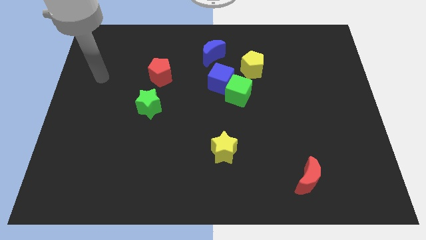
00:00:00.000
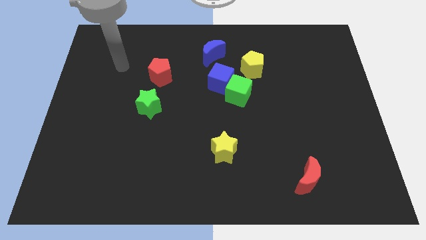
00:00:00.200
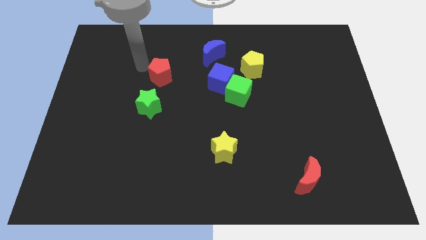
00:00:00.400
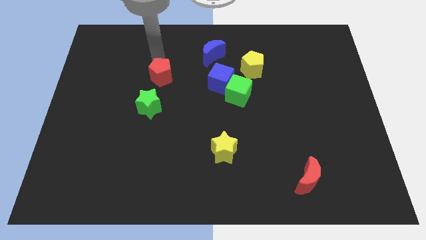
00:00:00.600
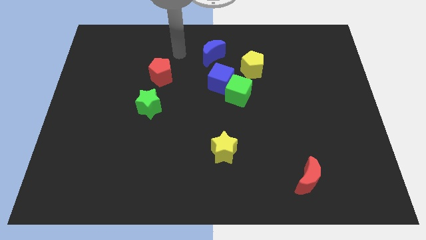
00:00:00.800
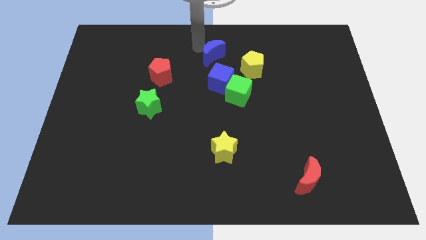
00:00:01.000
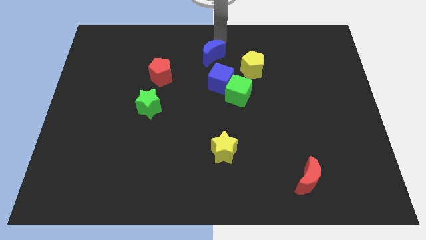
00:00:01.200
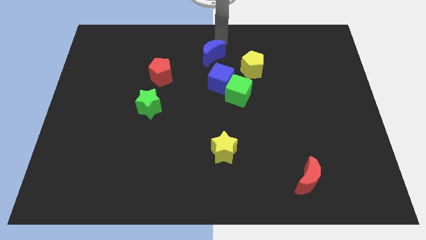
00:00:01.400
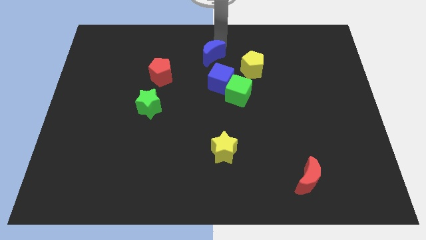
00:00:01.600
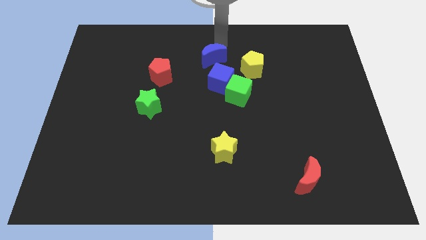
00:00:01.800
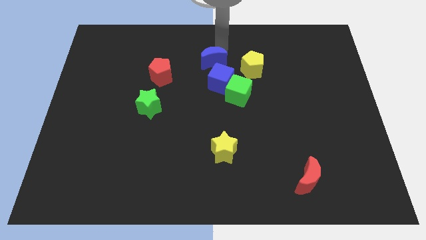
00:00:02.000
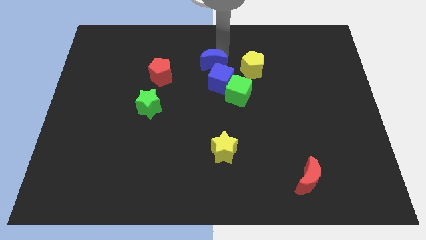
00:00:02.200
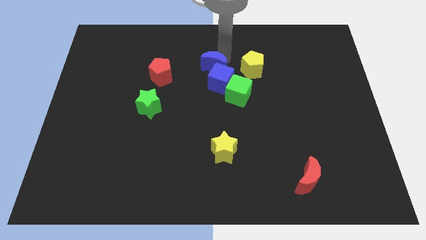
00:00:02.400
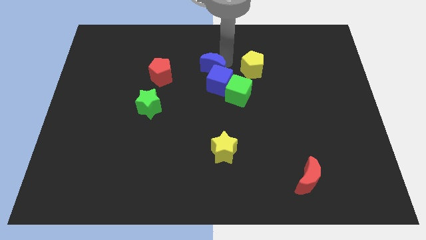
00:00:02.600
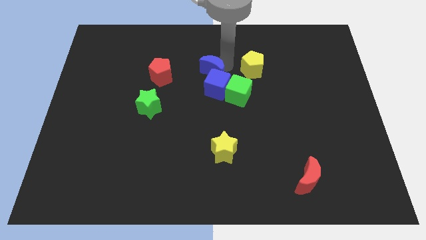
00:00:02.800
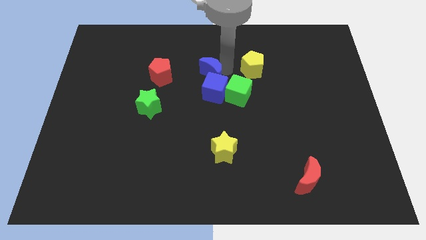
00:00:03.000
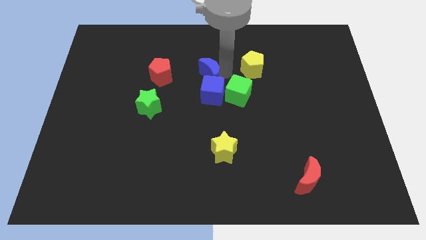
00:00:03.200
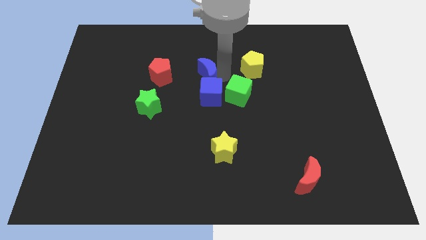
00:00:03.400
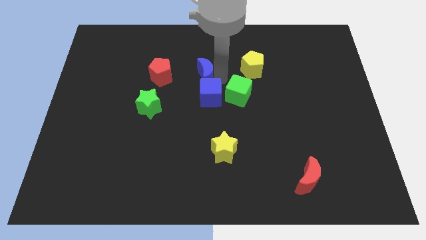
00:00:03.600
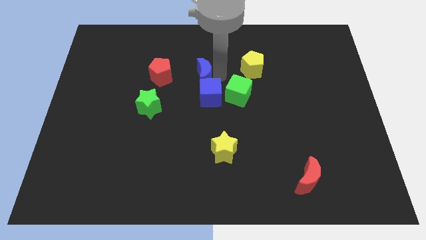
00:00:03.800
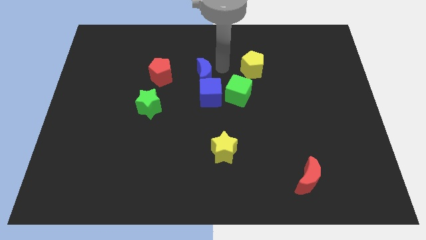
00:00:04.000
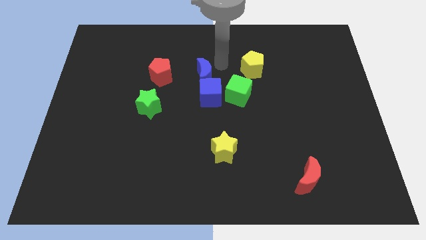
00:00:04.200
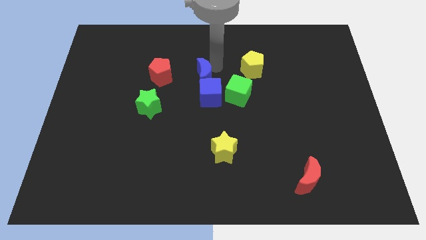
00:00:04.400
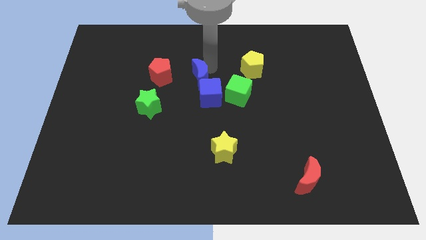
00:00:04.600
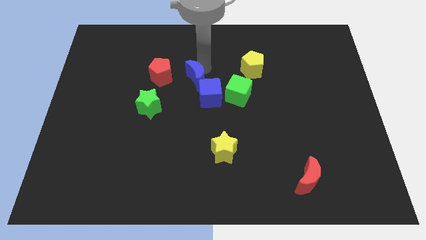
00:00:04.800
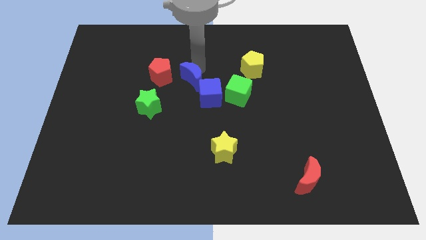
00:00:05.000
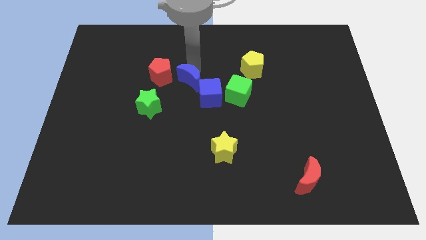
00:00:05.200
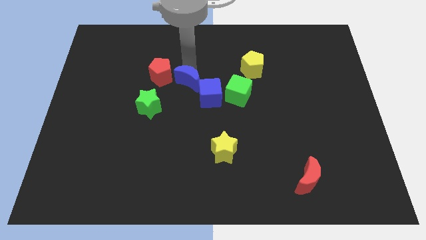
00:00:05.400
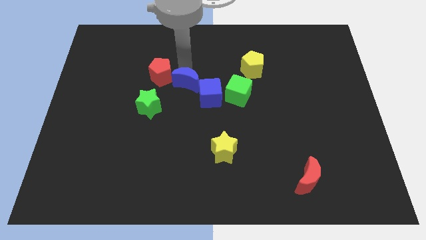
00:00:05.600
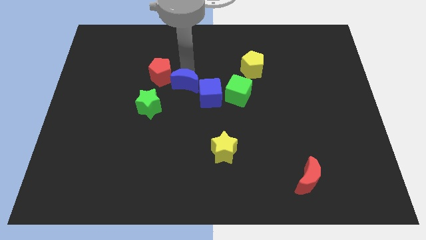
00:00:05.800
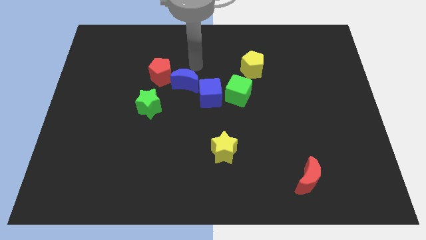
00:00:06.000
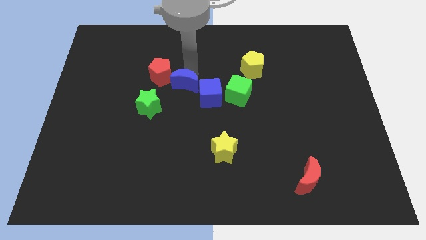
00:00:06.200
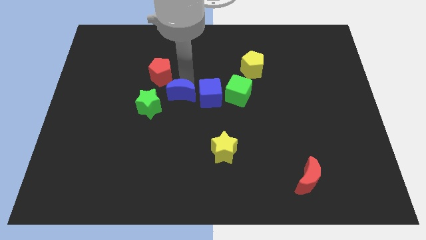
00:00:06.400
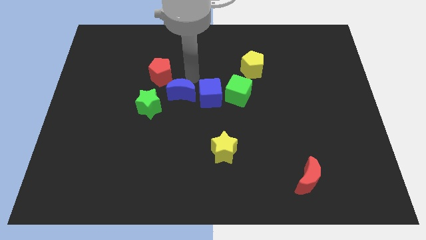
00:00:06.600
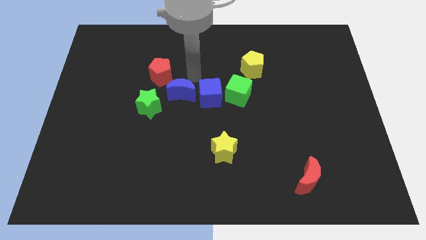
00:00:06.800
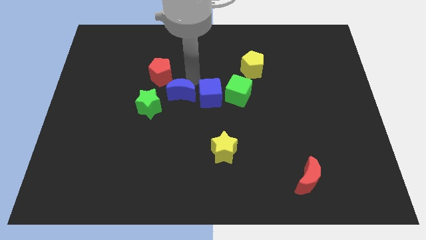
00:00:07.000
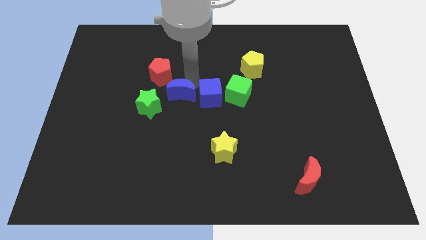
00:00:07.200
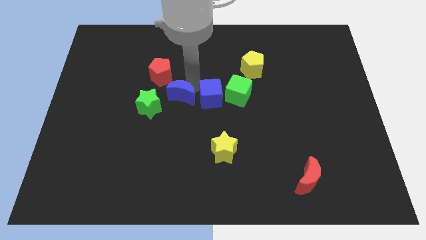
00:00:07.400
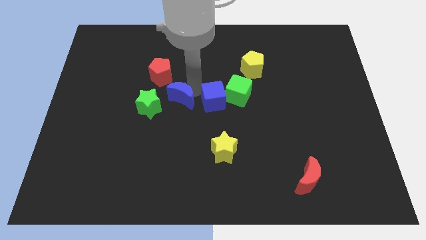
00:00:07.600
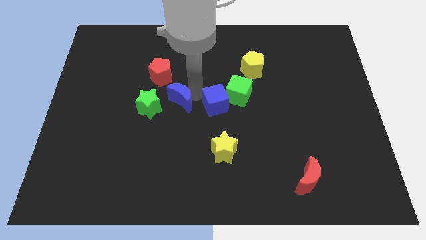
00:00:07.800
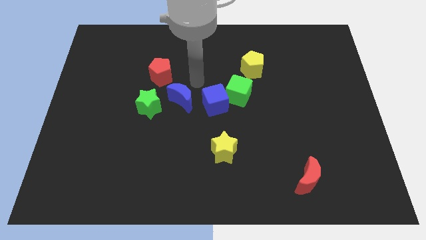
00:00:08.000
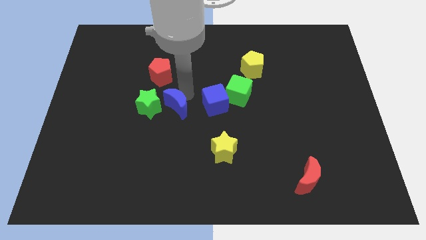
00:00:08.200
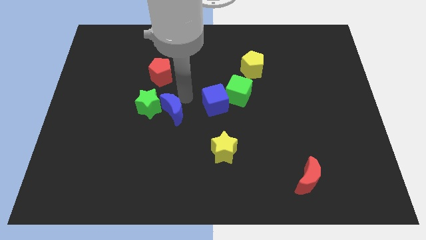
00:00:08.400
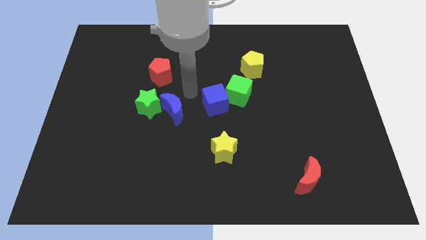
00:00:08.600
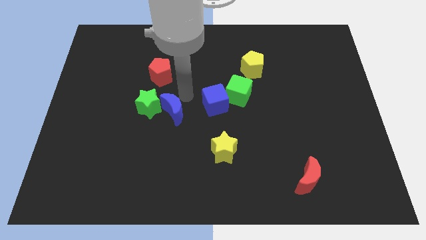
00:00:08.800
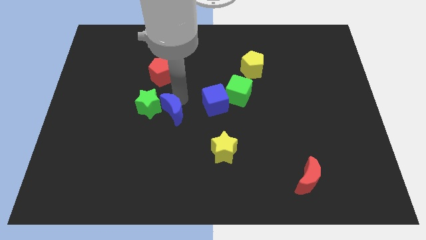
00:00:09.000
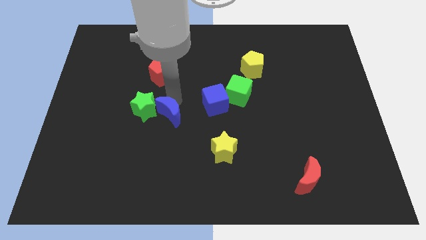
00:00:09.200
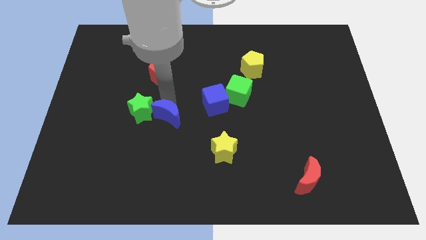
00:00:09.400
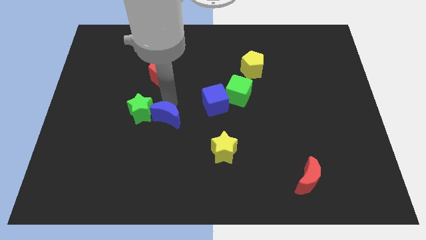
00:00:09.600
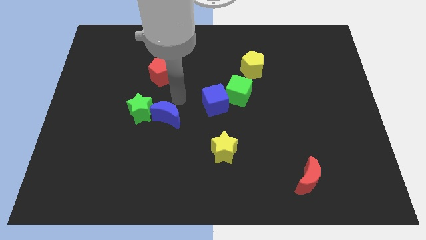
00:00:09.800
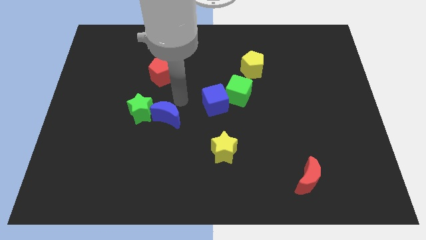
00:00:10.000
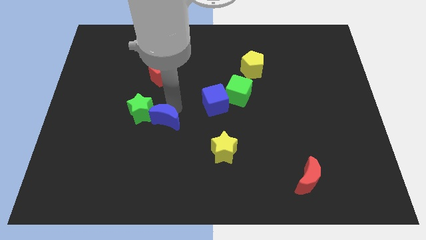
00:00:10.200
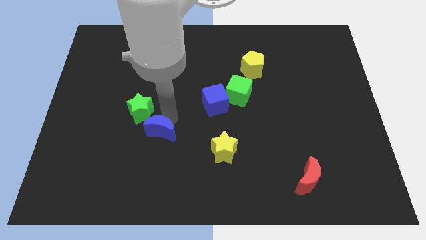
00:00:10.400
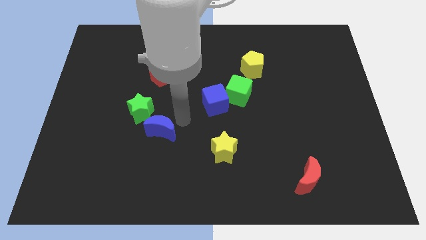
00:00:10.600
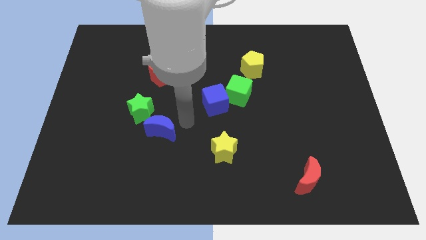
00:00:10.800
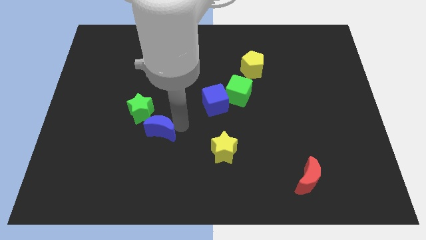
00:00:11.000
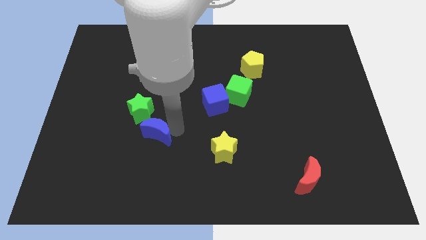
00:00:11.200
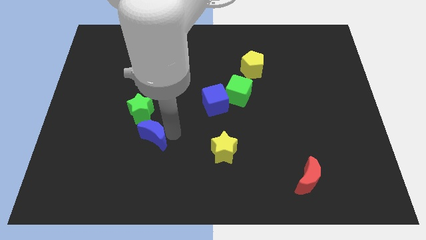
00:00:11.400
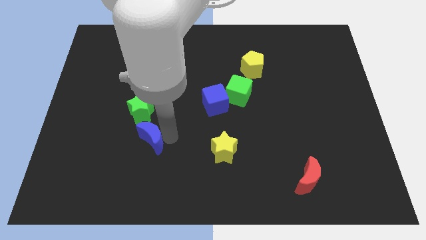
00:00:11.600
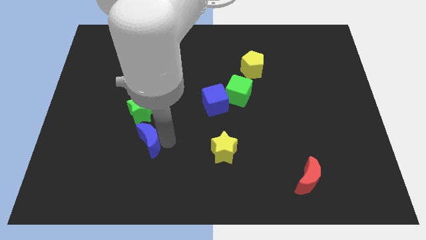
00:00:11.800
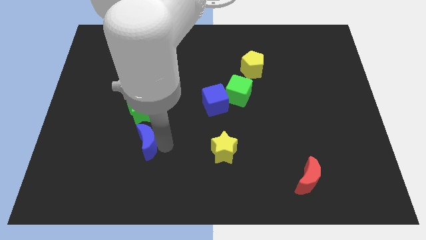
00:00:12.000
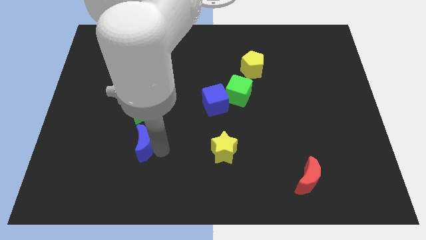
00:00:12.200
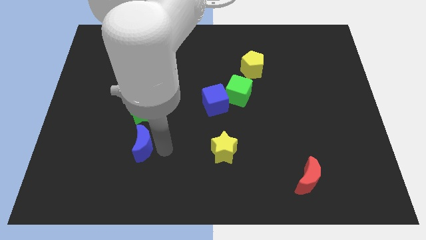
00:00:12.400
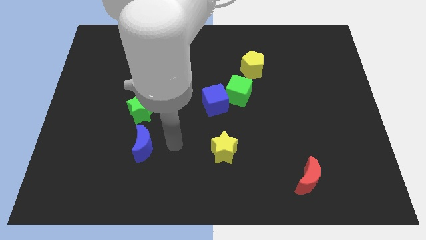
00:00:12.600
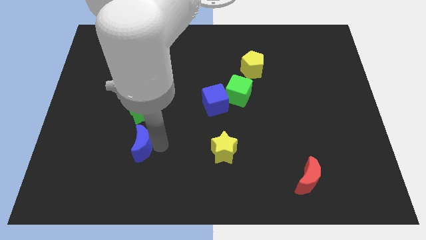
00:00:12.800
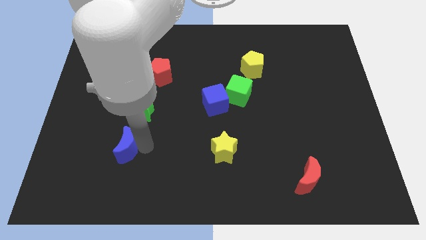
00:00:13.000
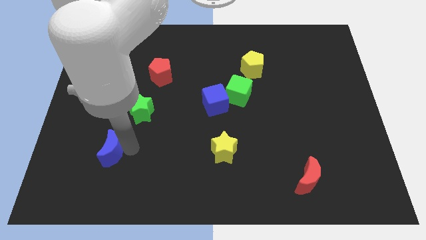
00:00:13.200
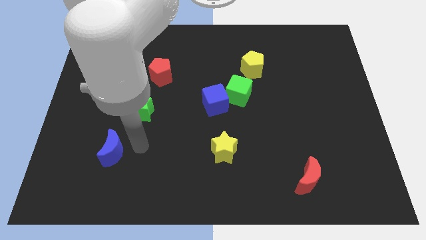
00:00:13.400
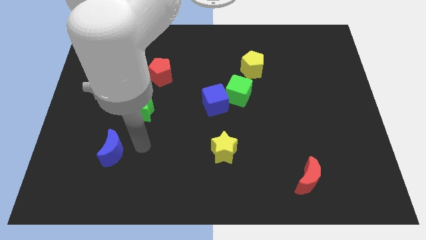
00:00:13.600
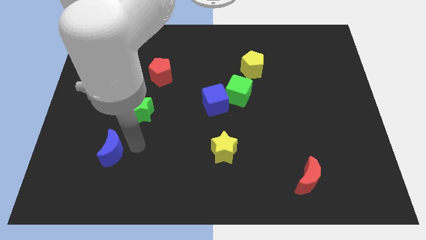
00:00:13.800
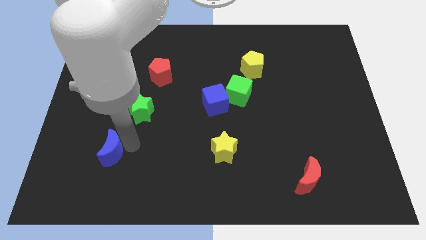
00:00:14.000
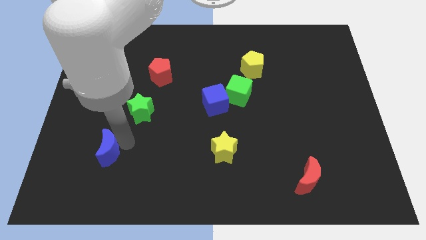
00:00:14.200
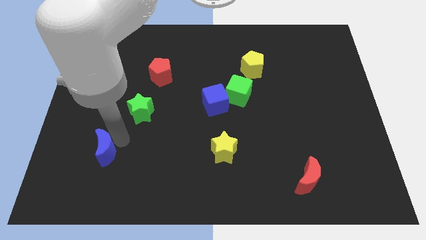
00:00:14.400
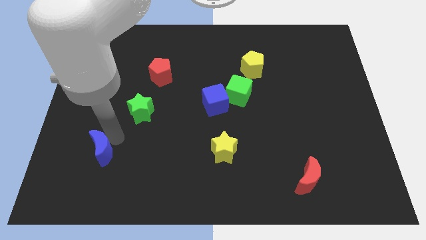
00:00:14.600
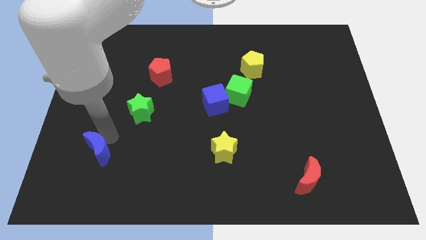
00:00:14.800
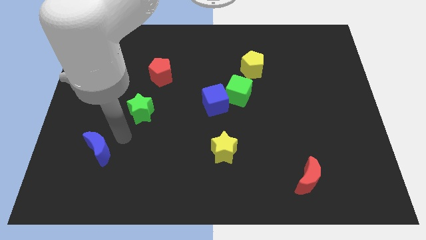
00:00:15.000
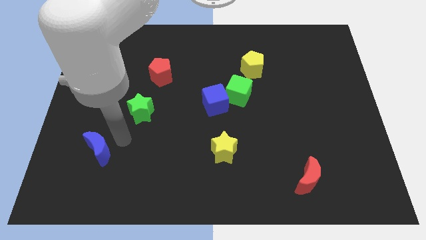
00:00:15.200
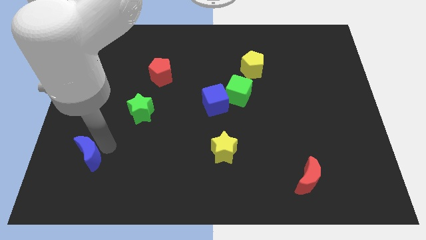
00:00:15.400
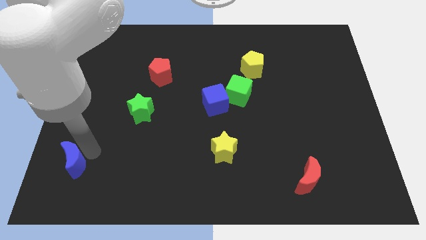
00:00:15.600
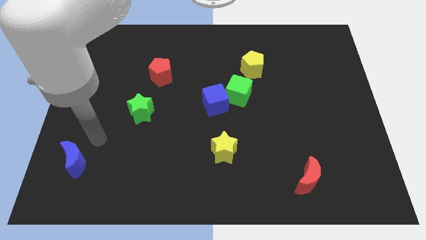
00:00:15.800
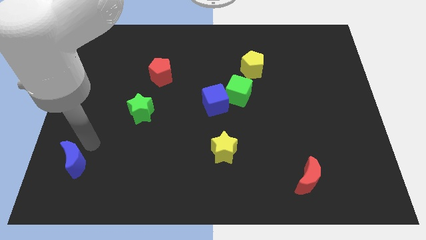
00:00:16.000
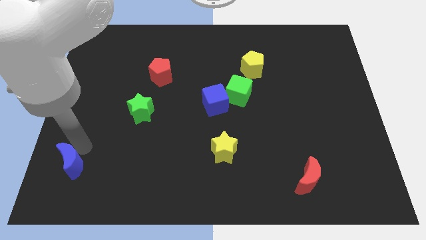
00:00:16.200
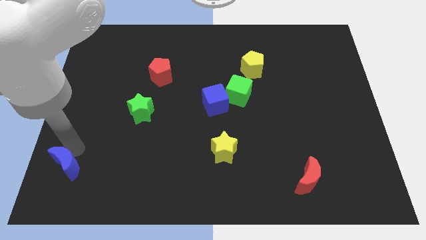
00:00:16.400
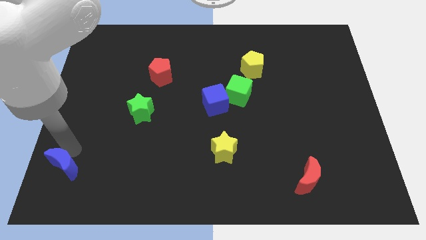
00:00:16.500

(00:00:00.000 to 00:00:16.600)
move the blue moon to the bottom left
